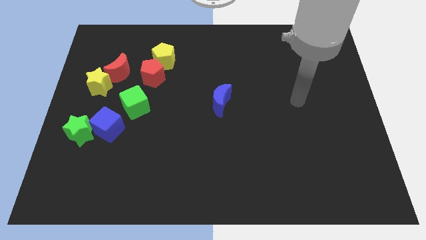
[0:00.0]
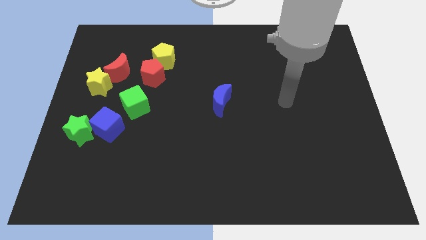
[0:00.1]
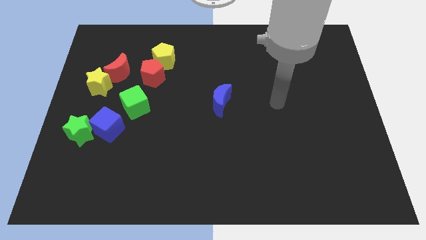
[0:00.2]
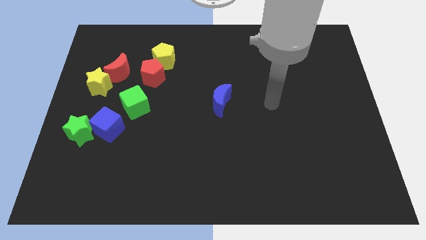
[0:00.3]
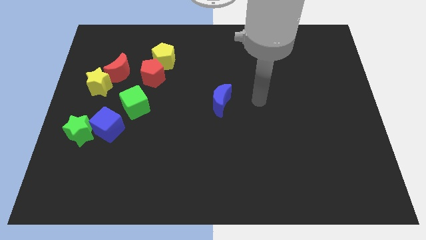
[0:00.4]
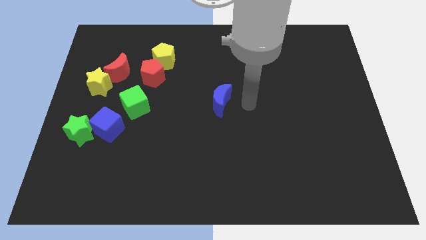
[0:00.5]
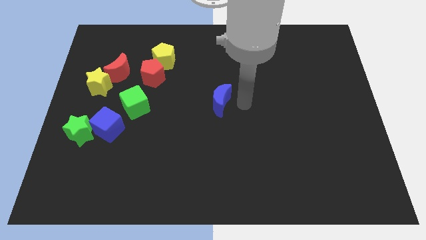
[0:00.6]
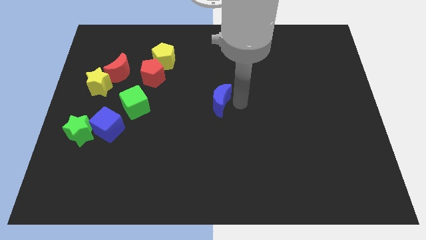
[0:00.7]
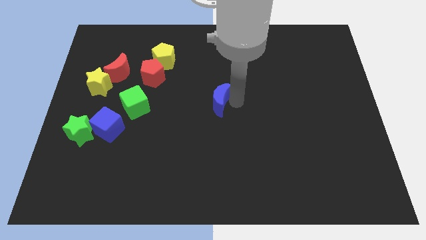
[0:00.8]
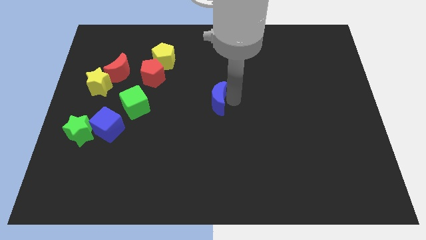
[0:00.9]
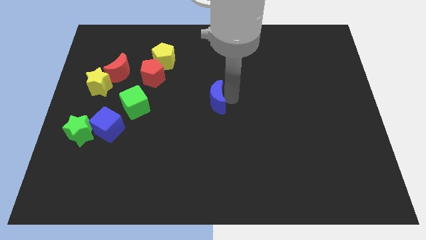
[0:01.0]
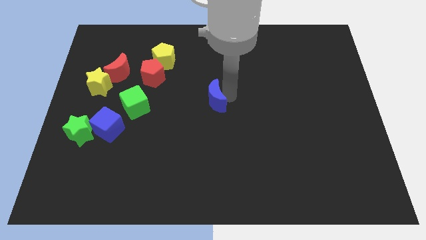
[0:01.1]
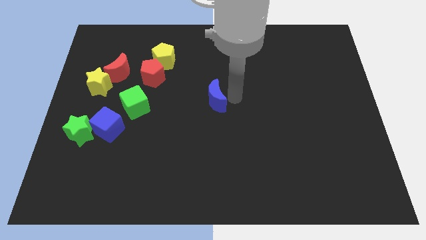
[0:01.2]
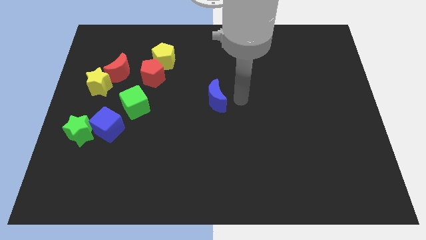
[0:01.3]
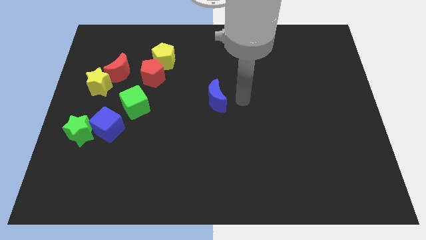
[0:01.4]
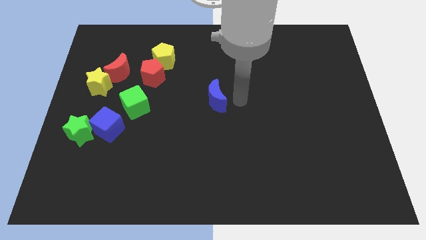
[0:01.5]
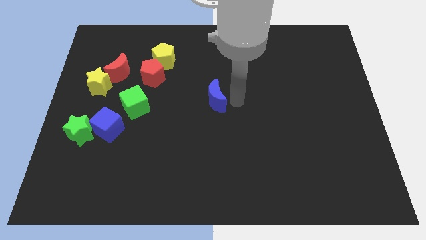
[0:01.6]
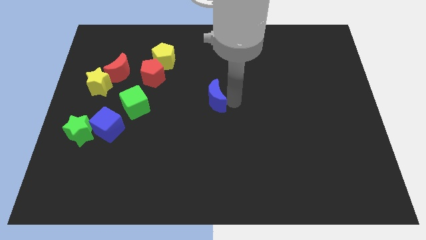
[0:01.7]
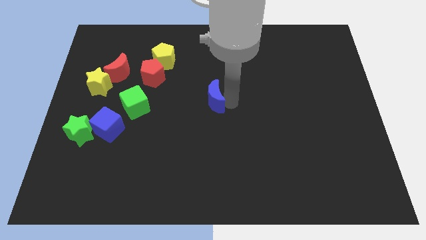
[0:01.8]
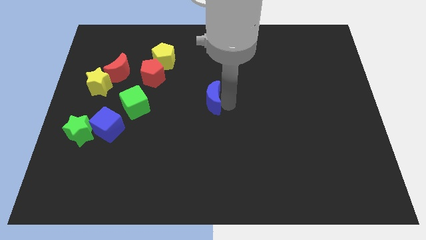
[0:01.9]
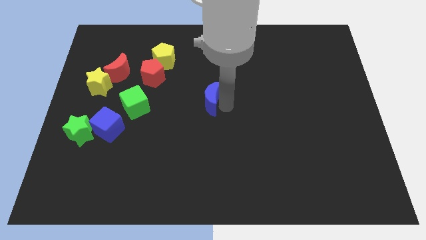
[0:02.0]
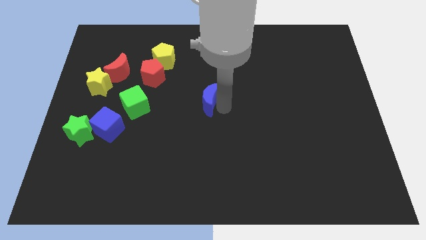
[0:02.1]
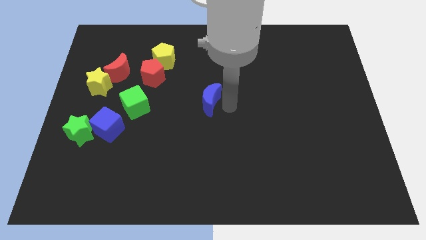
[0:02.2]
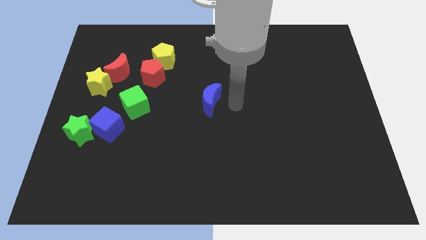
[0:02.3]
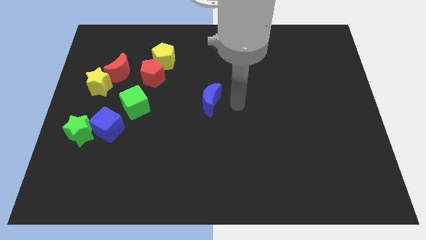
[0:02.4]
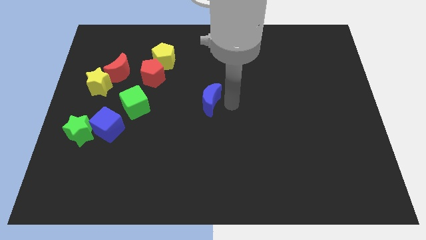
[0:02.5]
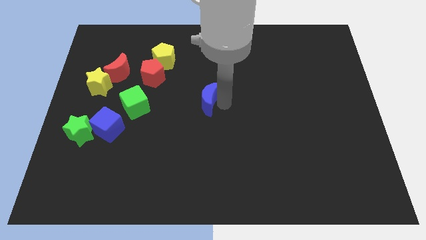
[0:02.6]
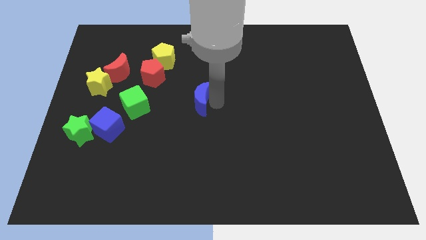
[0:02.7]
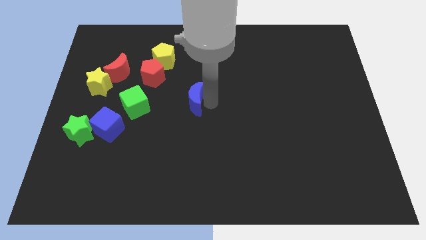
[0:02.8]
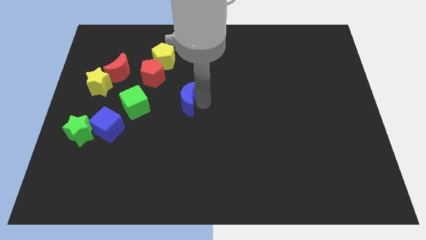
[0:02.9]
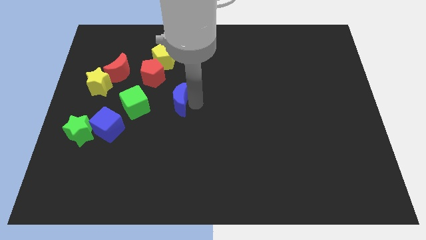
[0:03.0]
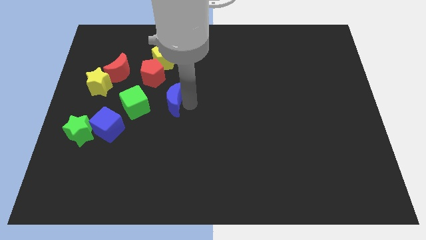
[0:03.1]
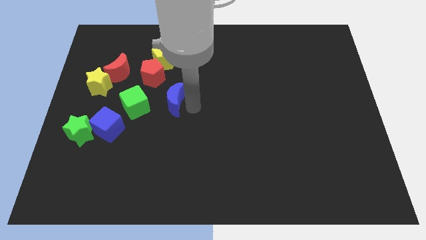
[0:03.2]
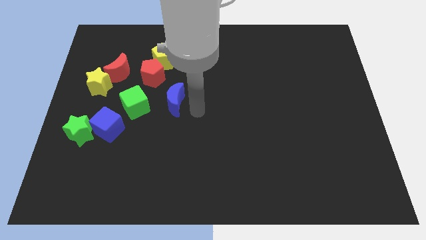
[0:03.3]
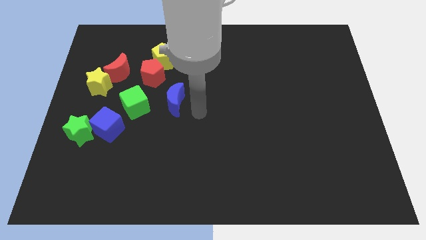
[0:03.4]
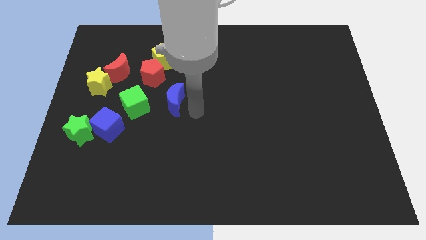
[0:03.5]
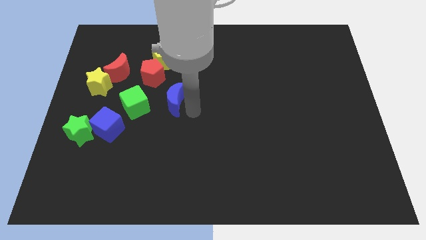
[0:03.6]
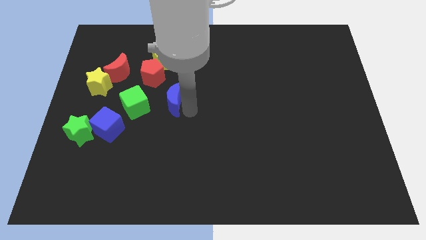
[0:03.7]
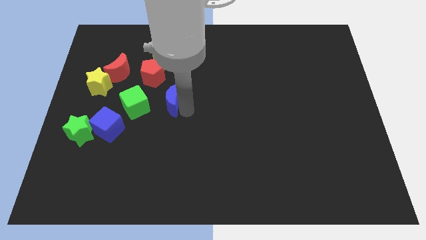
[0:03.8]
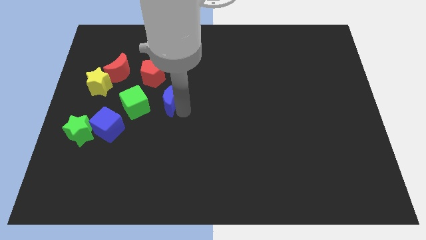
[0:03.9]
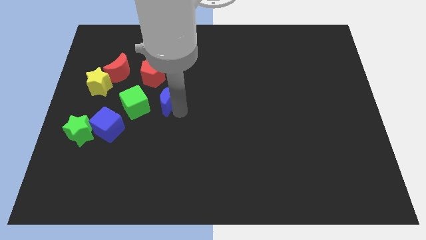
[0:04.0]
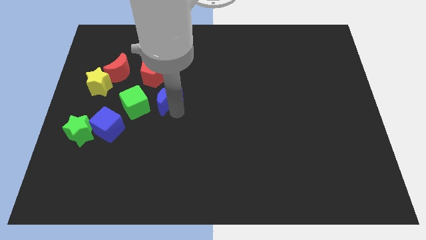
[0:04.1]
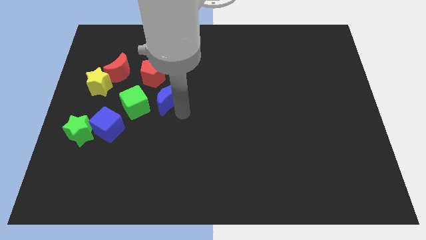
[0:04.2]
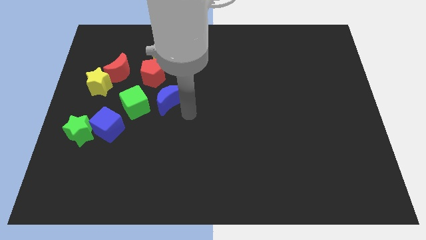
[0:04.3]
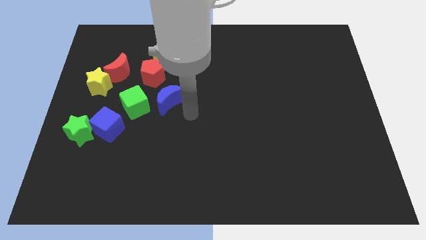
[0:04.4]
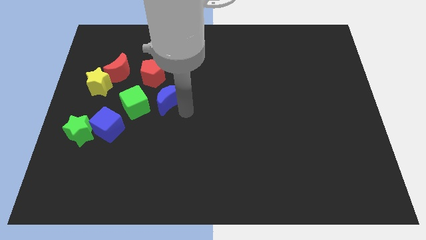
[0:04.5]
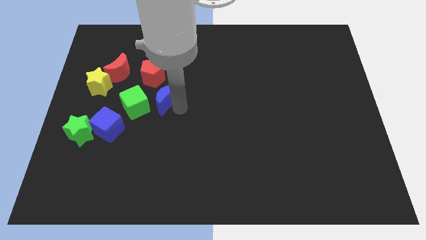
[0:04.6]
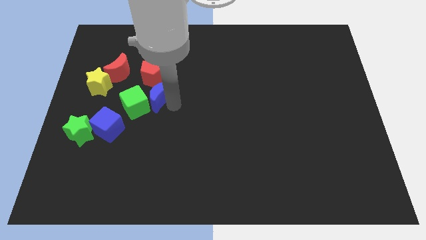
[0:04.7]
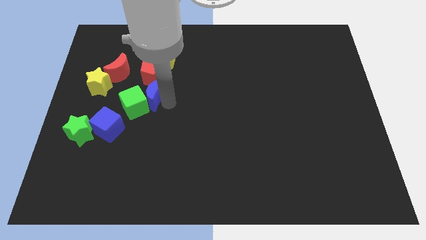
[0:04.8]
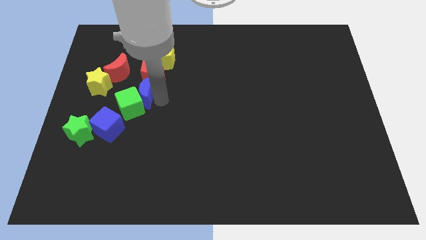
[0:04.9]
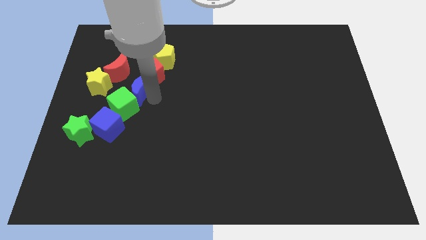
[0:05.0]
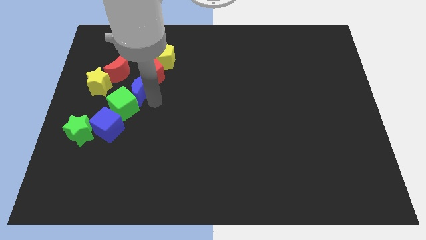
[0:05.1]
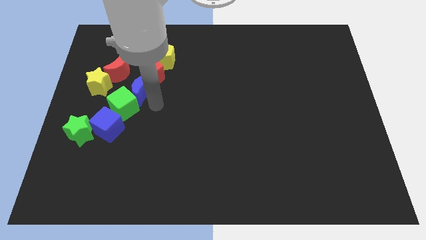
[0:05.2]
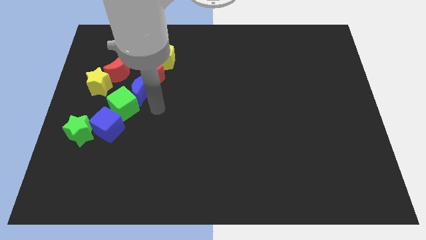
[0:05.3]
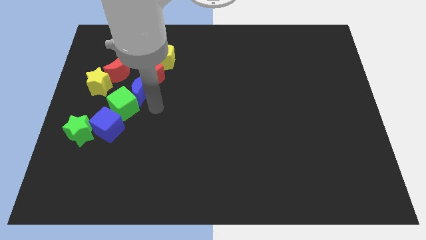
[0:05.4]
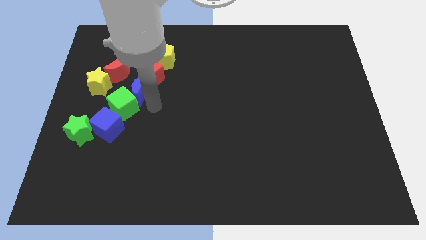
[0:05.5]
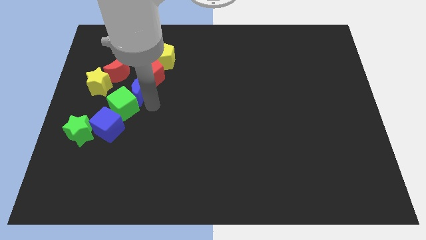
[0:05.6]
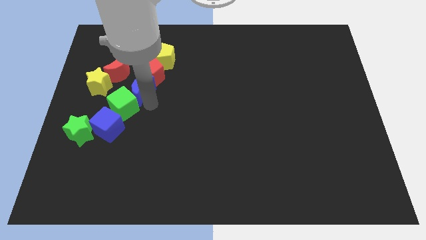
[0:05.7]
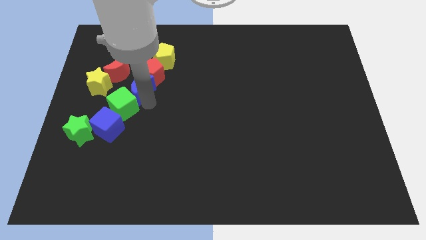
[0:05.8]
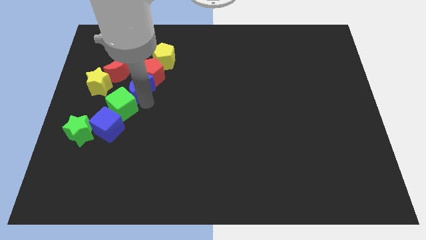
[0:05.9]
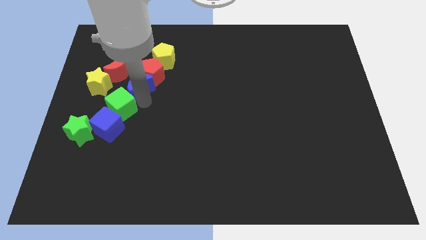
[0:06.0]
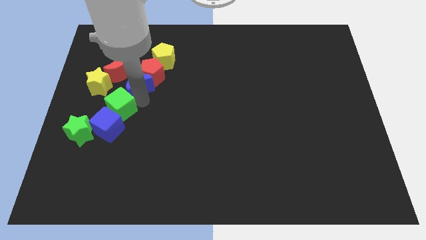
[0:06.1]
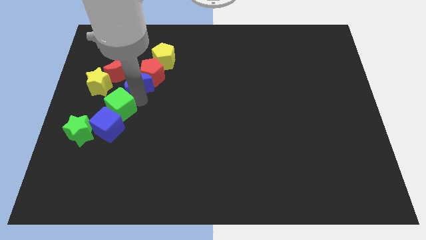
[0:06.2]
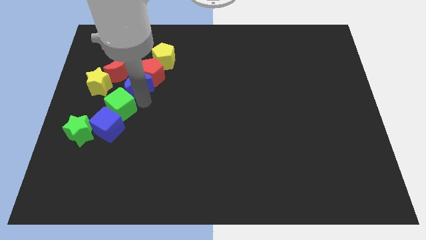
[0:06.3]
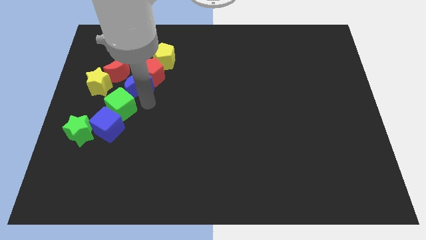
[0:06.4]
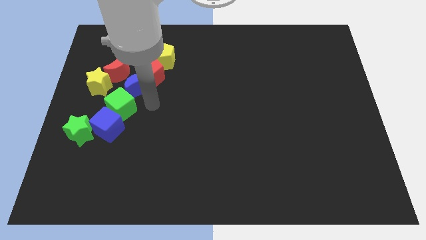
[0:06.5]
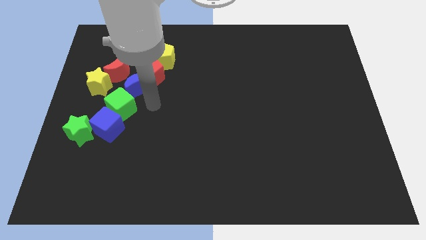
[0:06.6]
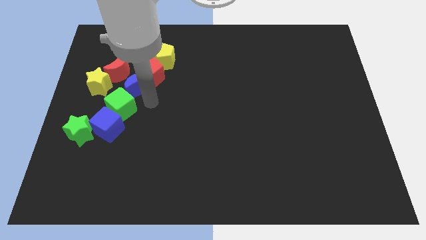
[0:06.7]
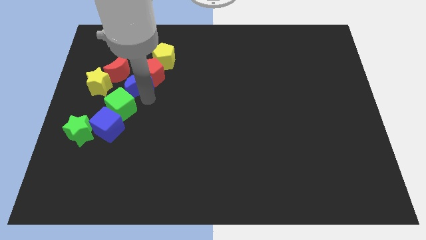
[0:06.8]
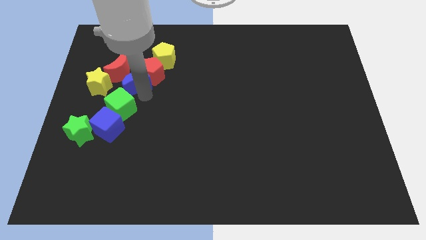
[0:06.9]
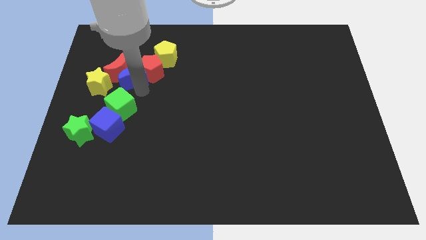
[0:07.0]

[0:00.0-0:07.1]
move the blue moon next to the red moon
